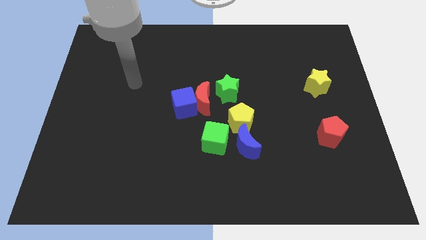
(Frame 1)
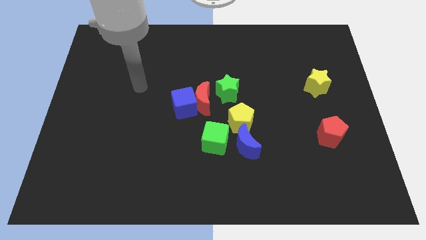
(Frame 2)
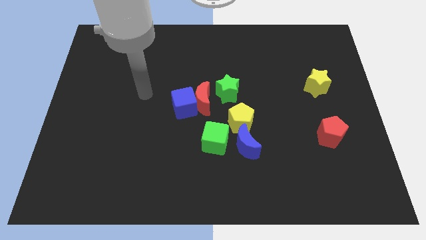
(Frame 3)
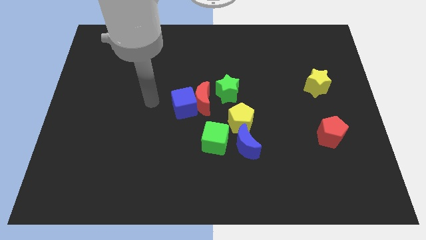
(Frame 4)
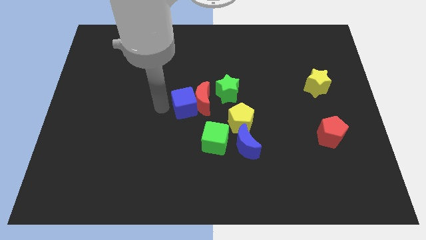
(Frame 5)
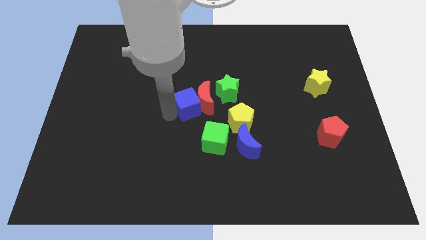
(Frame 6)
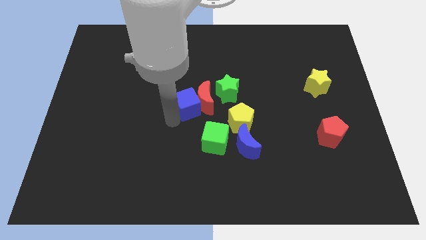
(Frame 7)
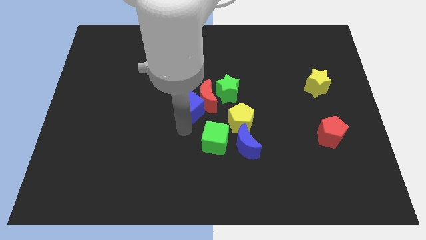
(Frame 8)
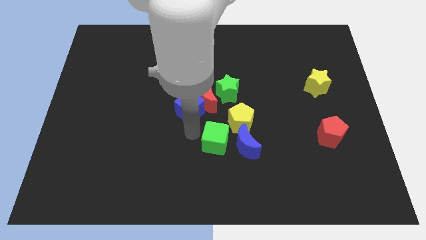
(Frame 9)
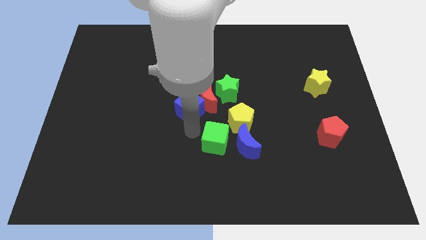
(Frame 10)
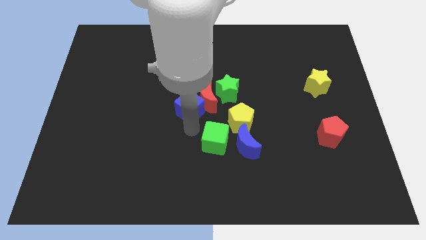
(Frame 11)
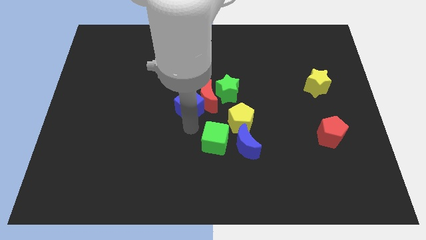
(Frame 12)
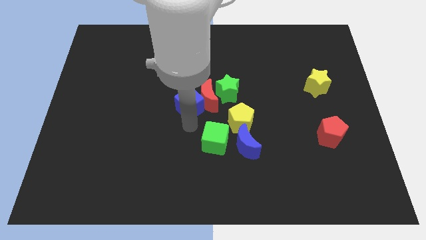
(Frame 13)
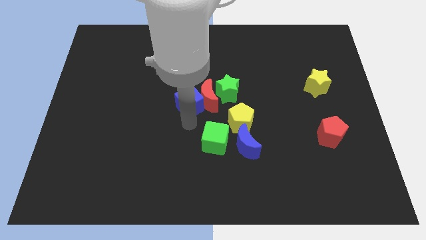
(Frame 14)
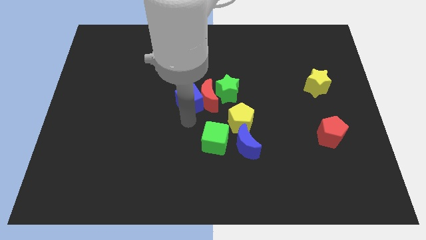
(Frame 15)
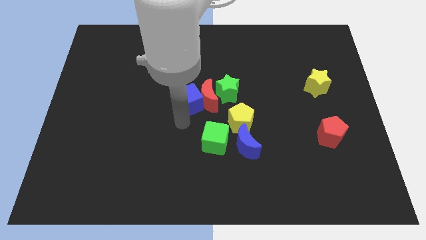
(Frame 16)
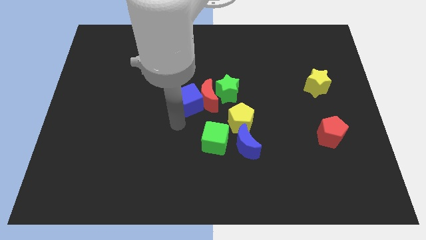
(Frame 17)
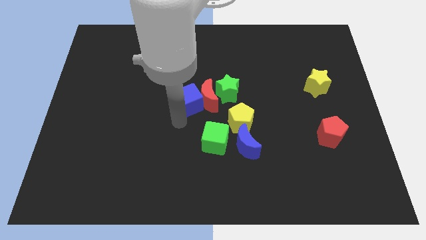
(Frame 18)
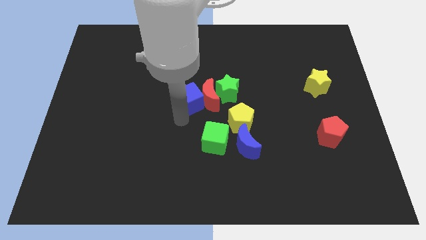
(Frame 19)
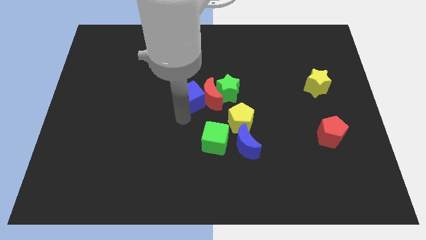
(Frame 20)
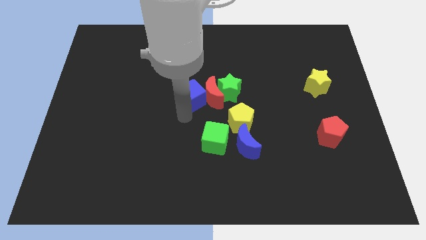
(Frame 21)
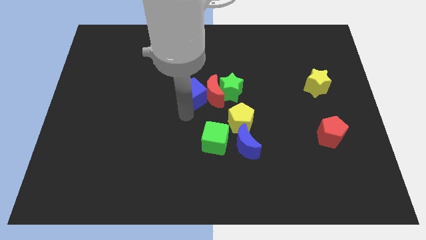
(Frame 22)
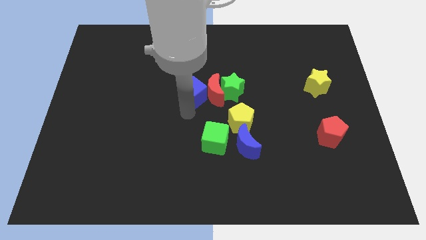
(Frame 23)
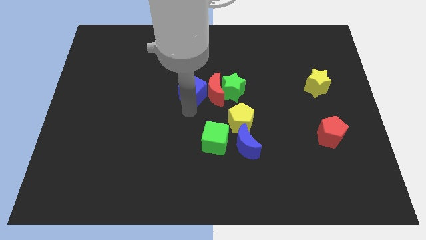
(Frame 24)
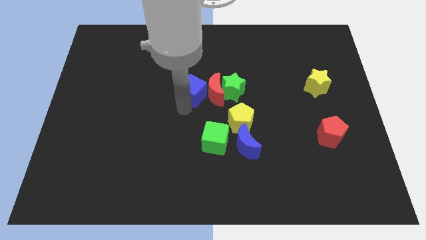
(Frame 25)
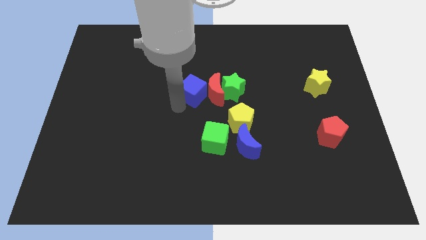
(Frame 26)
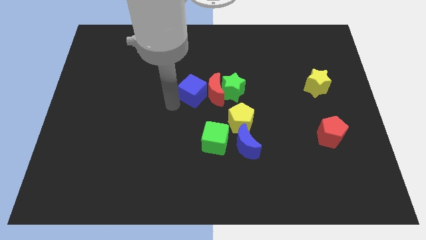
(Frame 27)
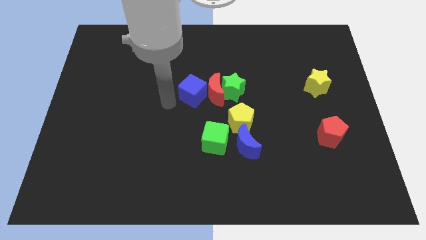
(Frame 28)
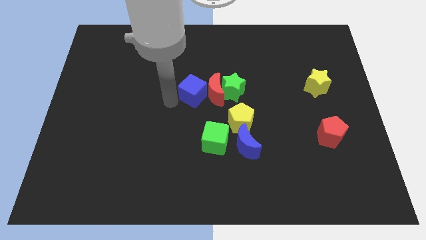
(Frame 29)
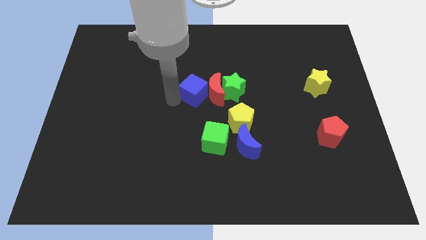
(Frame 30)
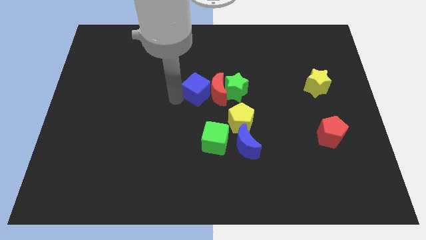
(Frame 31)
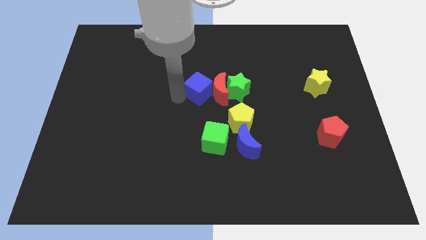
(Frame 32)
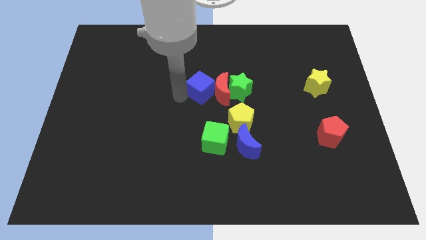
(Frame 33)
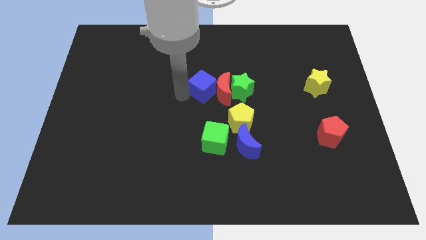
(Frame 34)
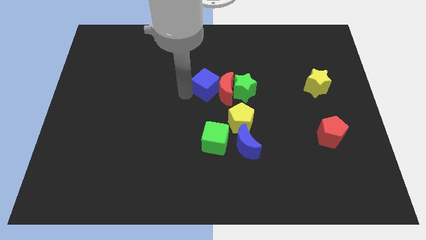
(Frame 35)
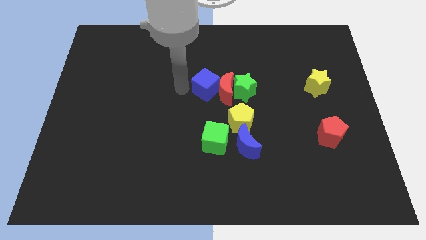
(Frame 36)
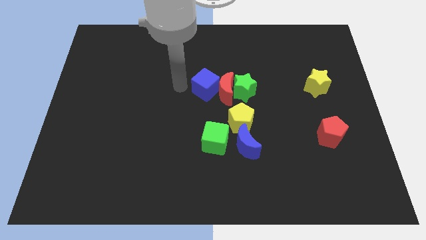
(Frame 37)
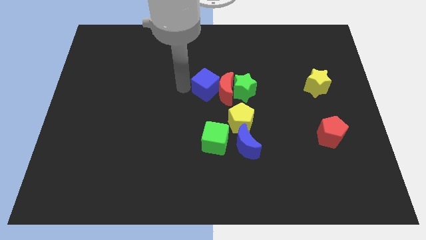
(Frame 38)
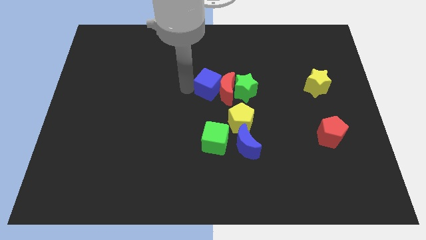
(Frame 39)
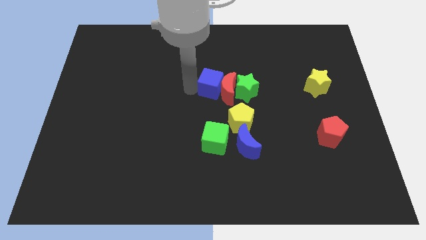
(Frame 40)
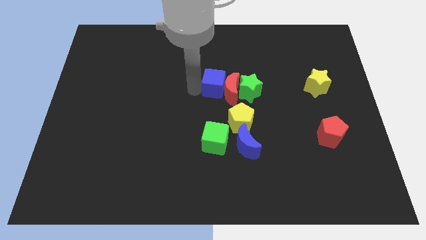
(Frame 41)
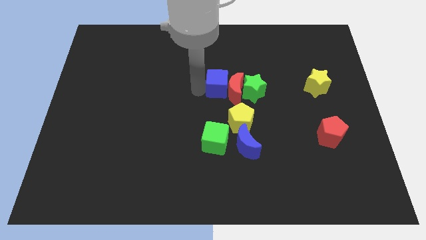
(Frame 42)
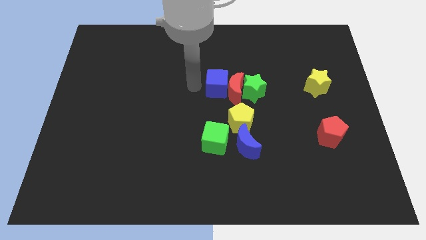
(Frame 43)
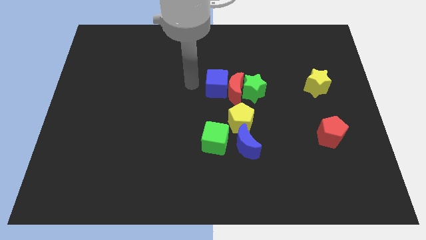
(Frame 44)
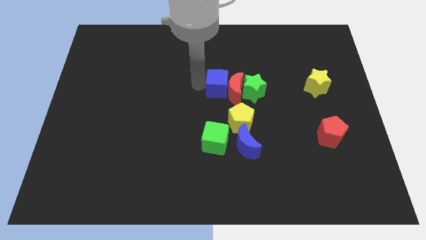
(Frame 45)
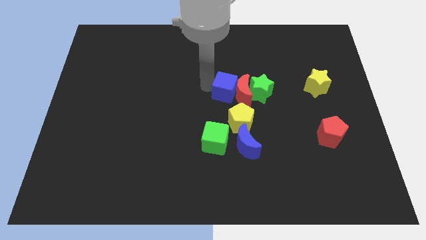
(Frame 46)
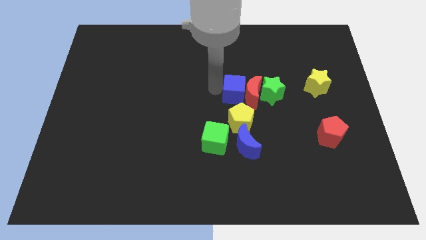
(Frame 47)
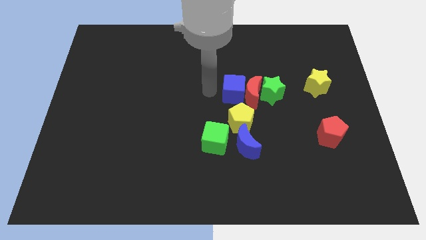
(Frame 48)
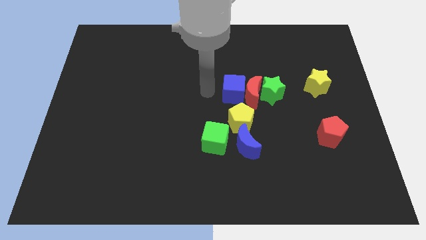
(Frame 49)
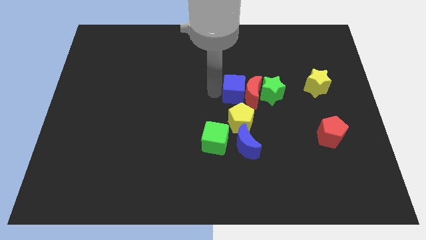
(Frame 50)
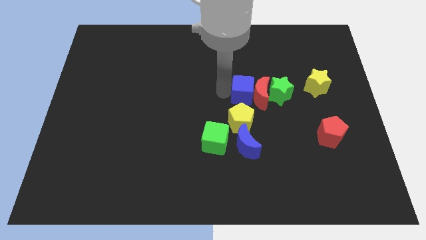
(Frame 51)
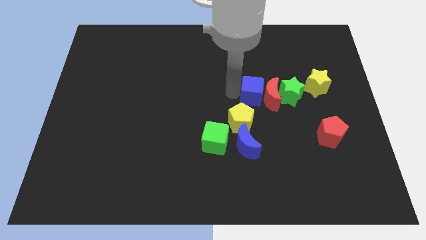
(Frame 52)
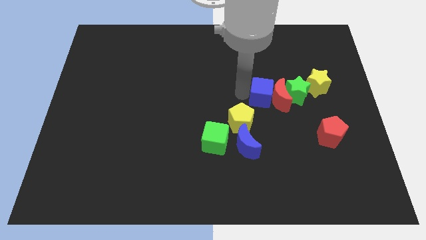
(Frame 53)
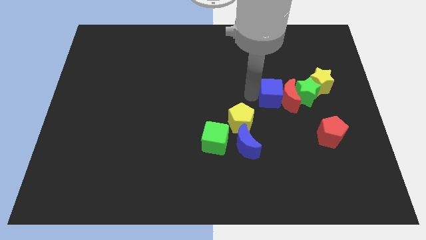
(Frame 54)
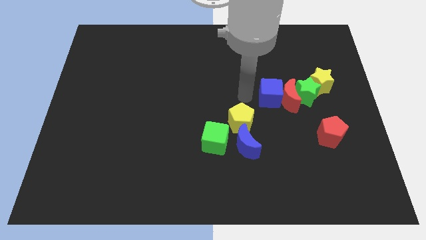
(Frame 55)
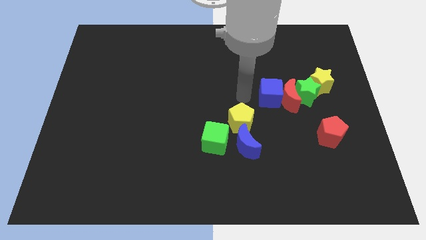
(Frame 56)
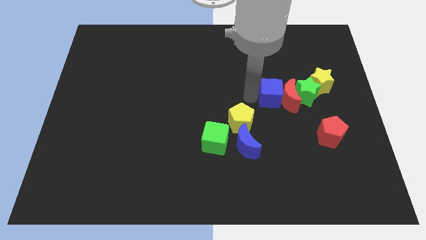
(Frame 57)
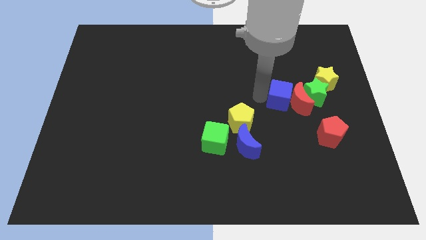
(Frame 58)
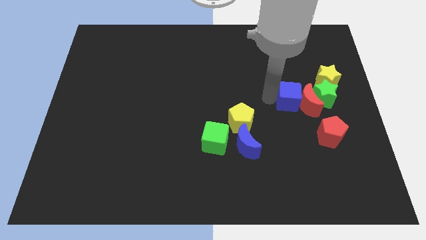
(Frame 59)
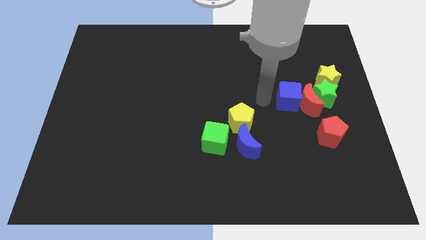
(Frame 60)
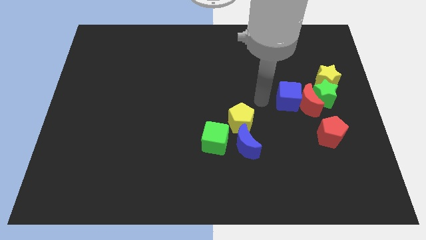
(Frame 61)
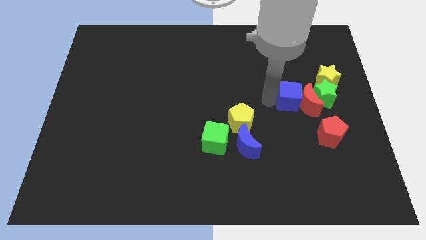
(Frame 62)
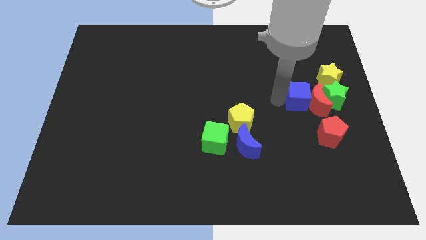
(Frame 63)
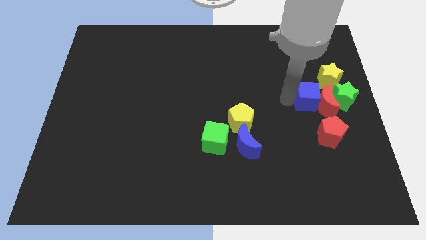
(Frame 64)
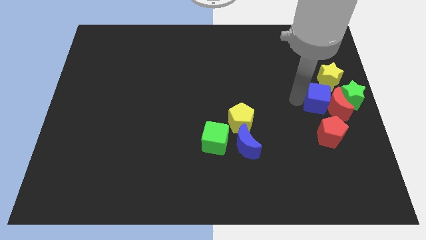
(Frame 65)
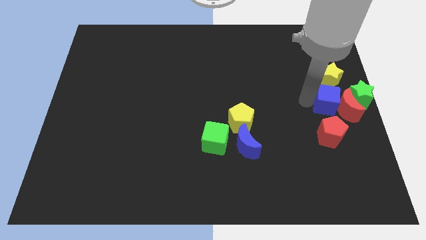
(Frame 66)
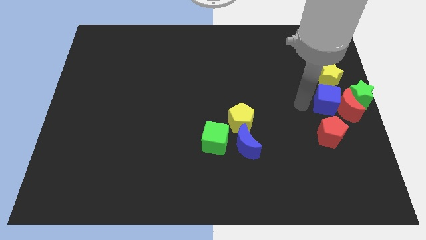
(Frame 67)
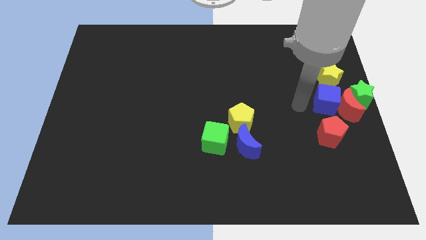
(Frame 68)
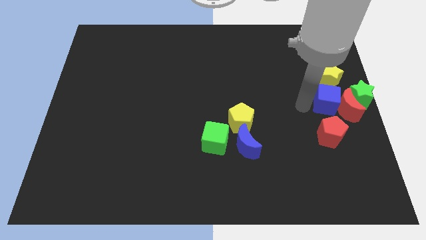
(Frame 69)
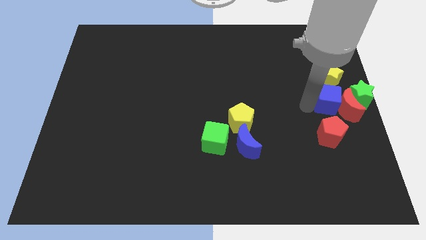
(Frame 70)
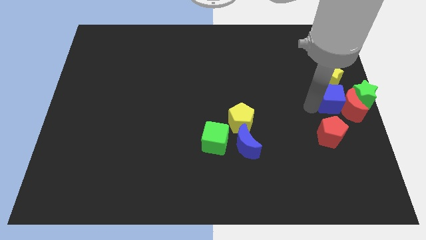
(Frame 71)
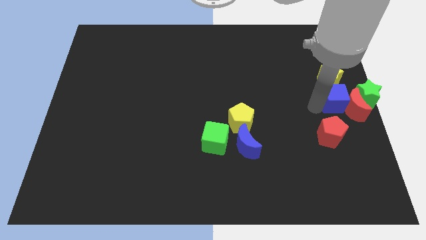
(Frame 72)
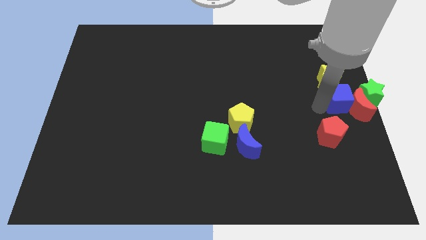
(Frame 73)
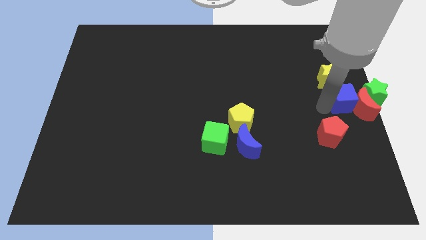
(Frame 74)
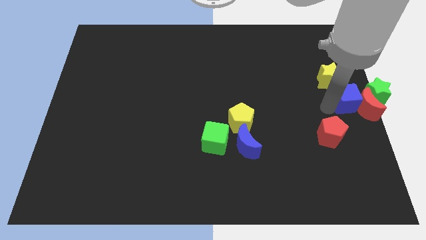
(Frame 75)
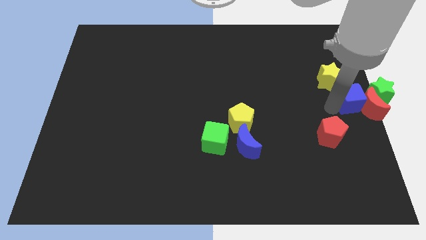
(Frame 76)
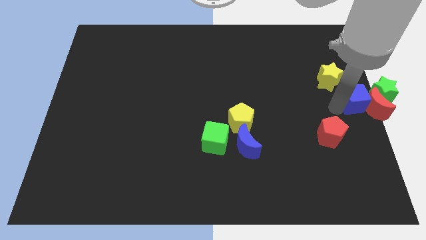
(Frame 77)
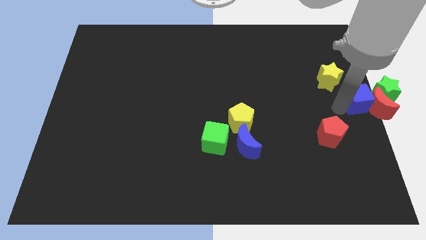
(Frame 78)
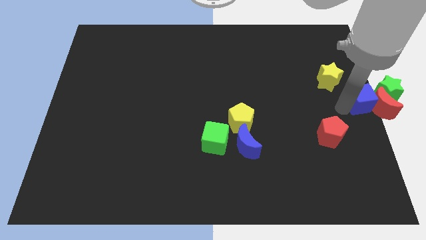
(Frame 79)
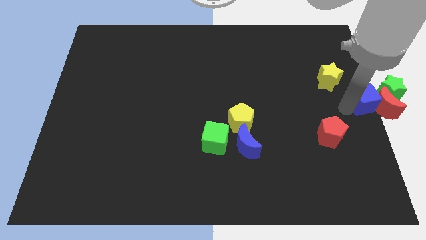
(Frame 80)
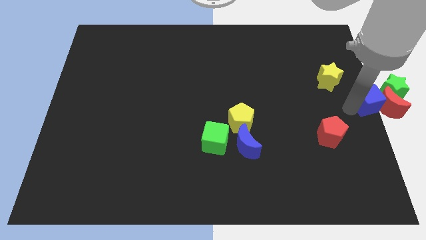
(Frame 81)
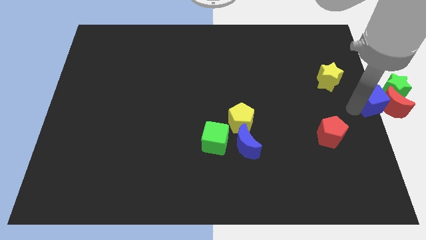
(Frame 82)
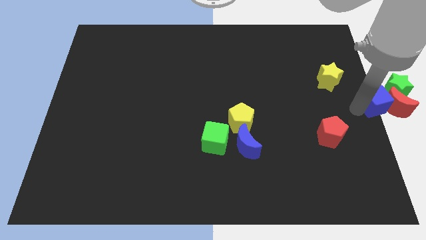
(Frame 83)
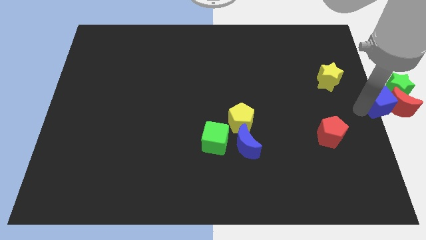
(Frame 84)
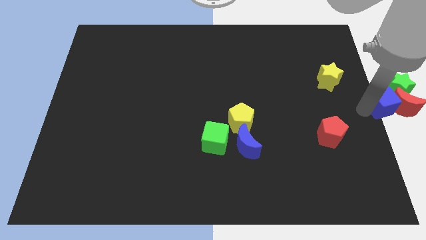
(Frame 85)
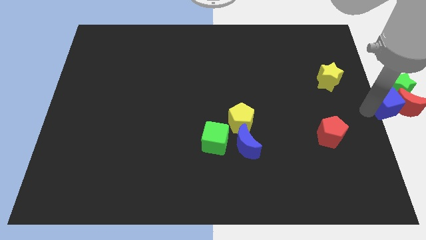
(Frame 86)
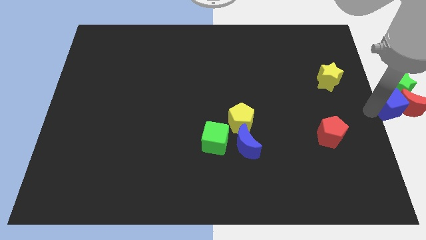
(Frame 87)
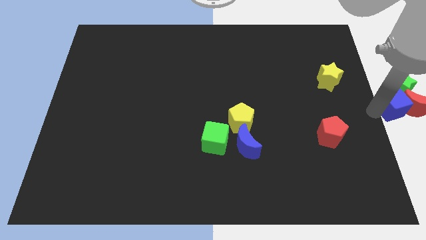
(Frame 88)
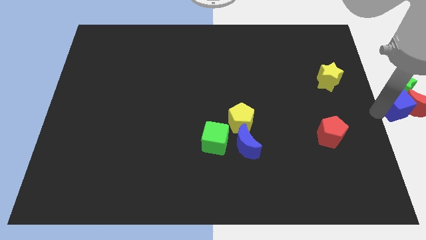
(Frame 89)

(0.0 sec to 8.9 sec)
push the blue cube next to the green star
